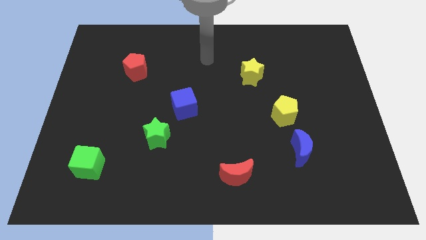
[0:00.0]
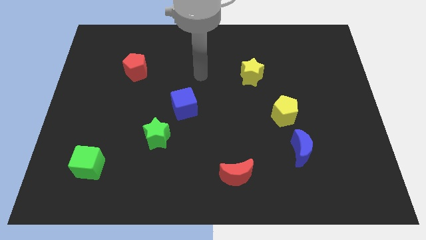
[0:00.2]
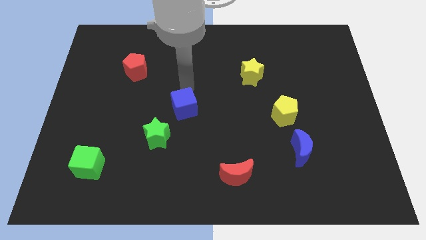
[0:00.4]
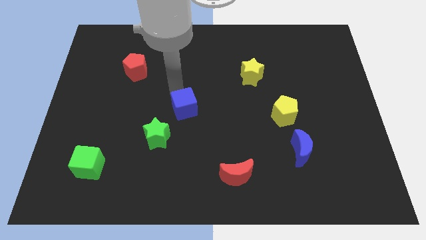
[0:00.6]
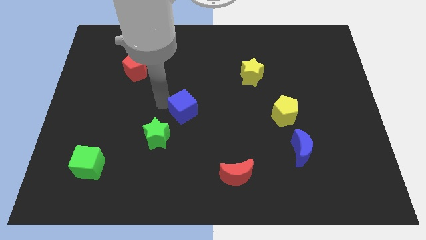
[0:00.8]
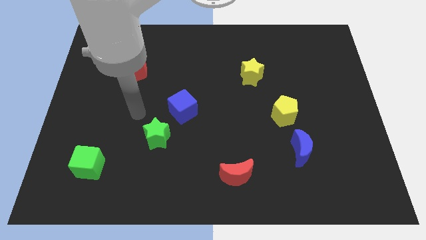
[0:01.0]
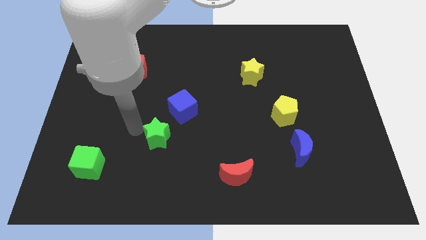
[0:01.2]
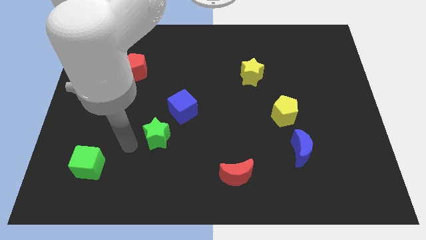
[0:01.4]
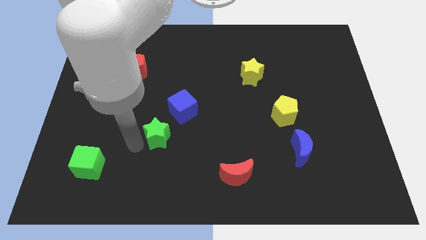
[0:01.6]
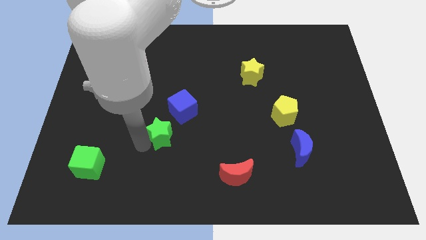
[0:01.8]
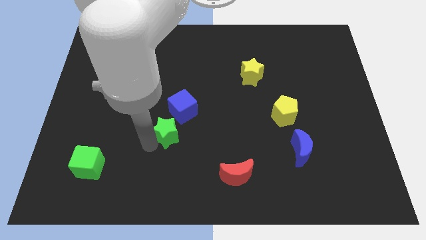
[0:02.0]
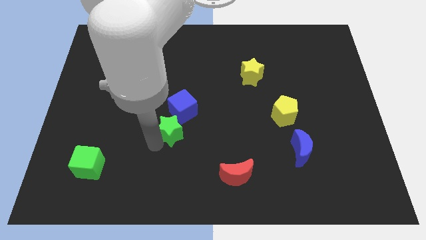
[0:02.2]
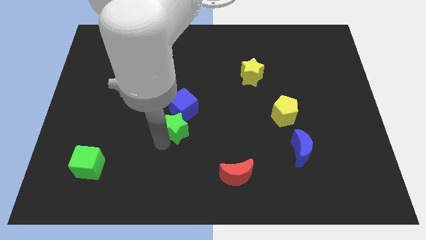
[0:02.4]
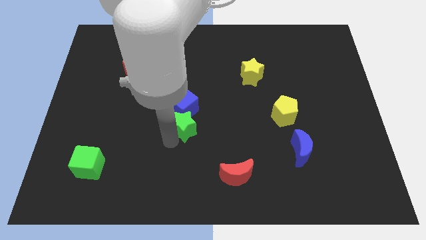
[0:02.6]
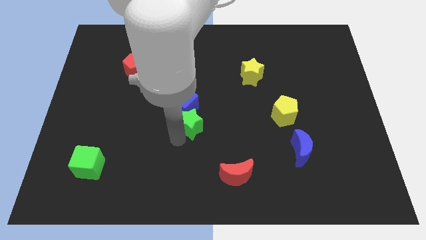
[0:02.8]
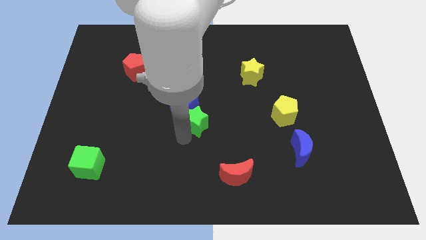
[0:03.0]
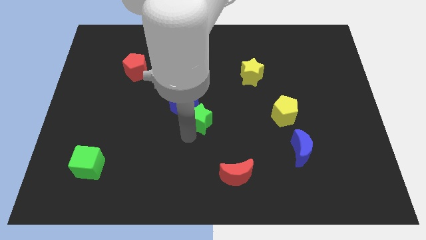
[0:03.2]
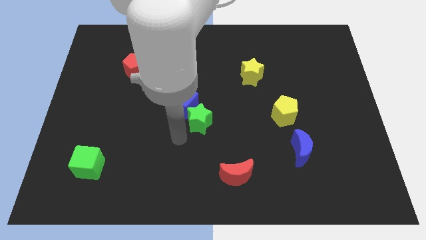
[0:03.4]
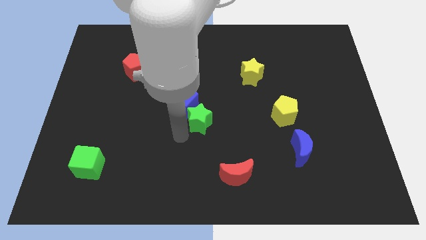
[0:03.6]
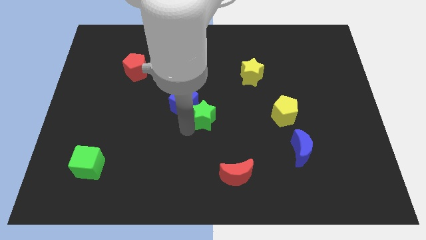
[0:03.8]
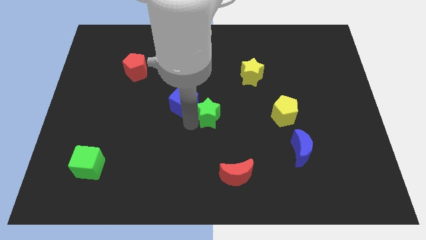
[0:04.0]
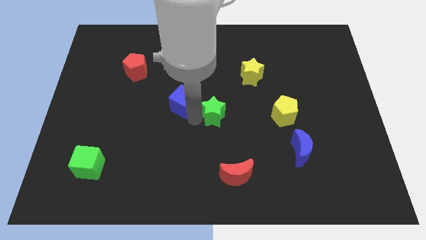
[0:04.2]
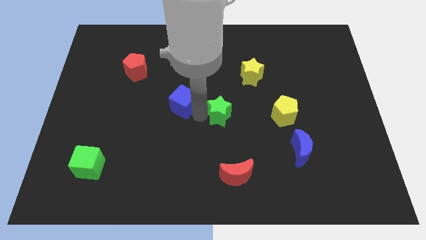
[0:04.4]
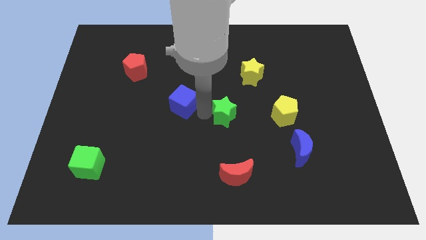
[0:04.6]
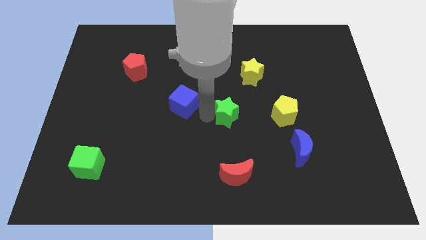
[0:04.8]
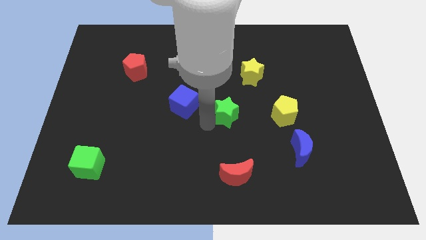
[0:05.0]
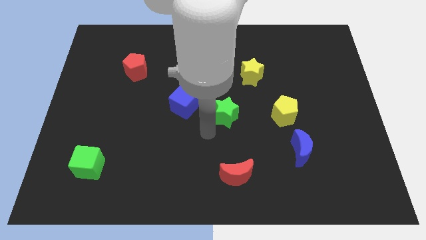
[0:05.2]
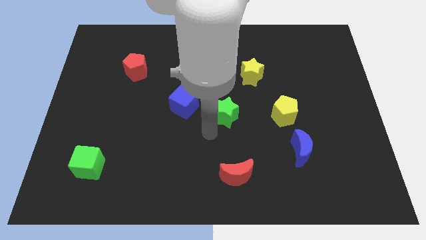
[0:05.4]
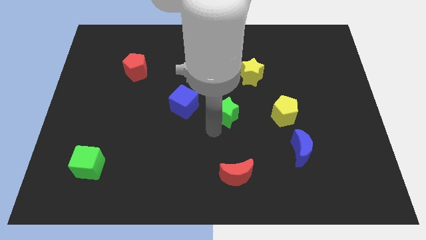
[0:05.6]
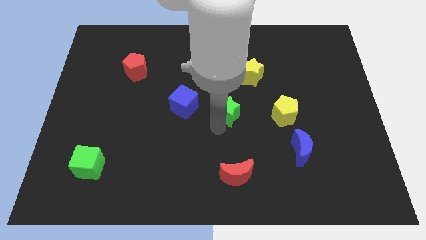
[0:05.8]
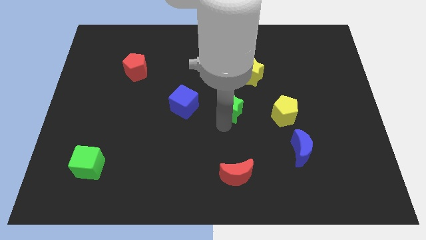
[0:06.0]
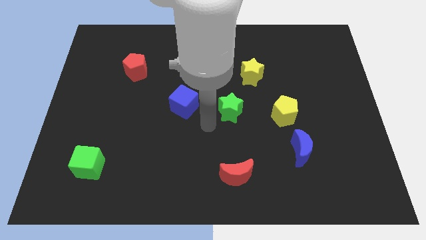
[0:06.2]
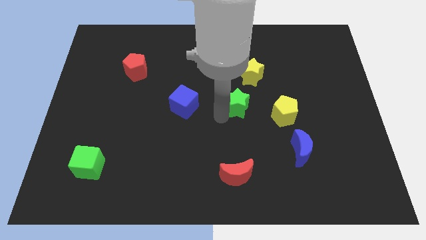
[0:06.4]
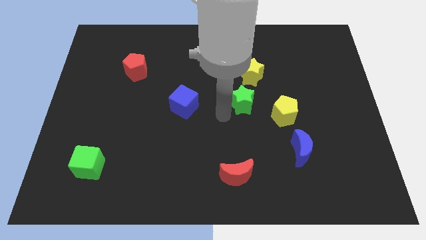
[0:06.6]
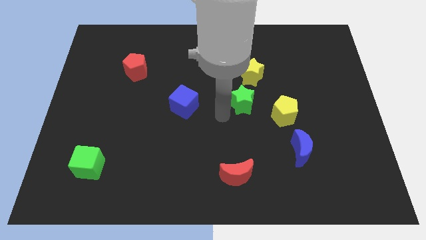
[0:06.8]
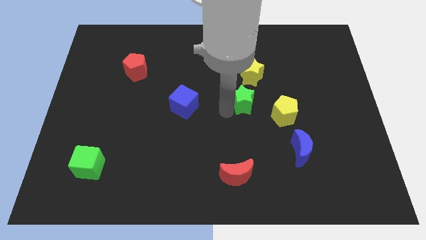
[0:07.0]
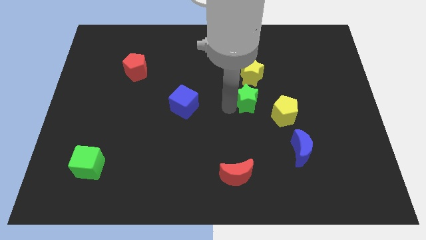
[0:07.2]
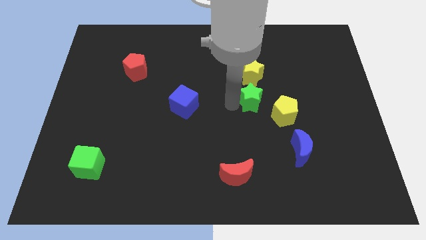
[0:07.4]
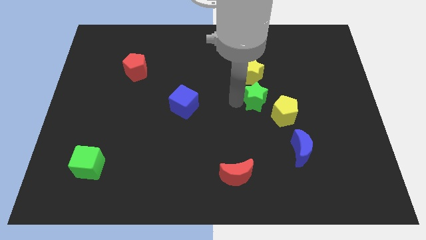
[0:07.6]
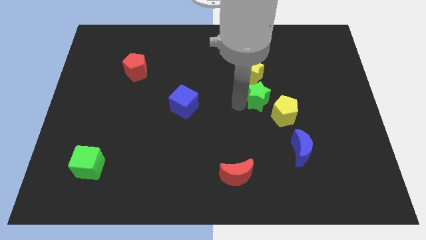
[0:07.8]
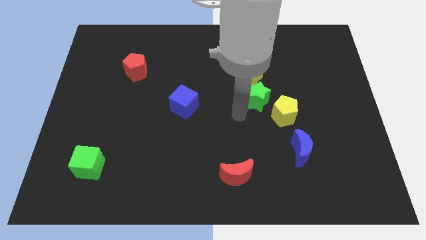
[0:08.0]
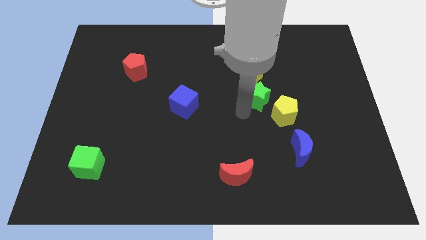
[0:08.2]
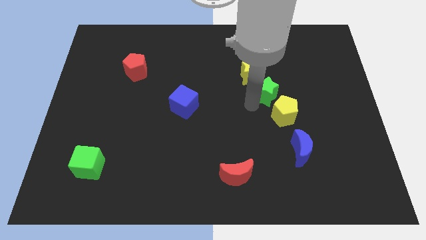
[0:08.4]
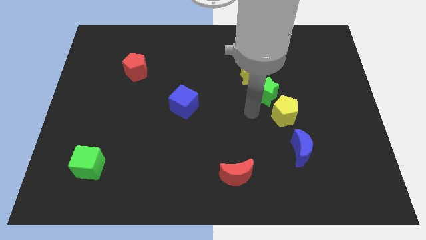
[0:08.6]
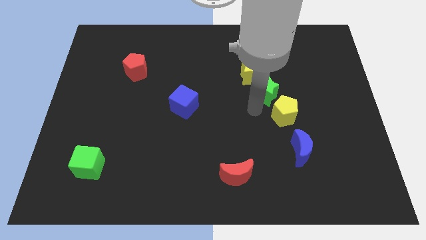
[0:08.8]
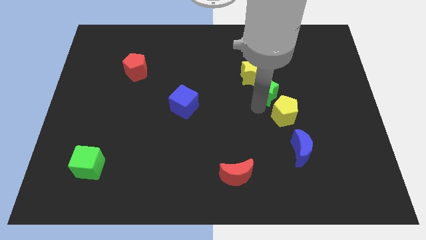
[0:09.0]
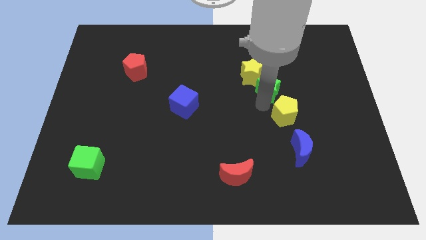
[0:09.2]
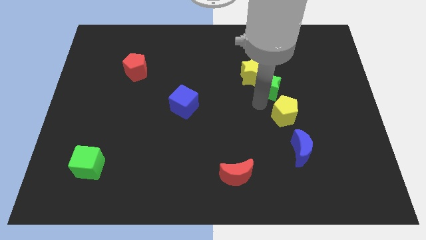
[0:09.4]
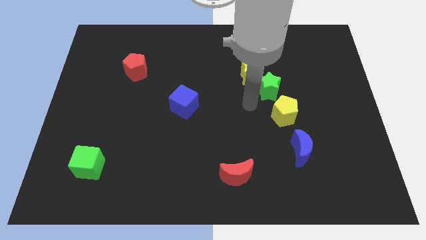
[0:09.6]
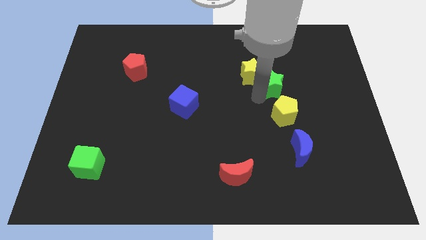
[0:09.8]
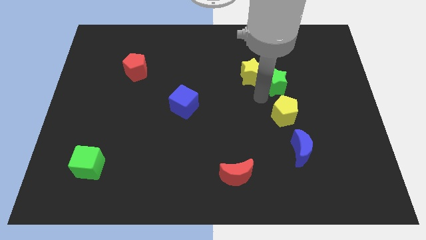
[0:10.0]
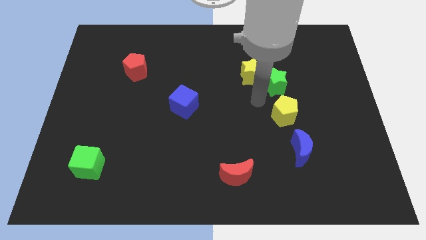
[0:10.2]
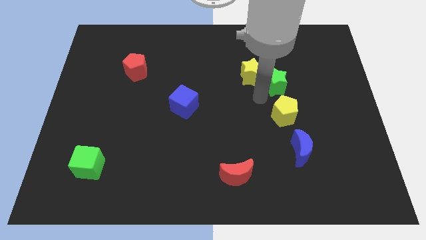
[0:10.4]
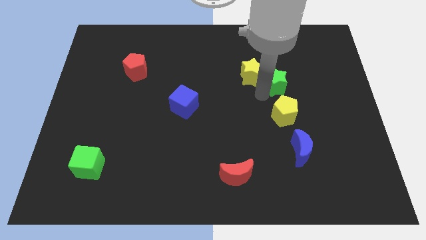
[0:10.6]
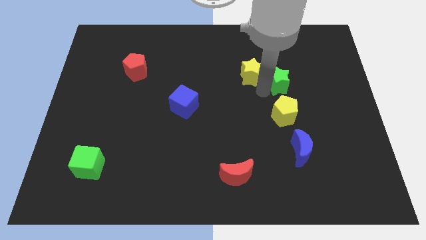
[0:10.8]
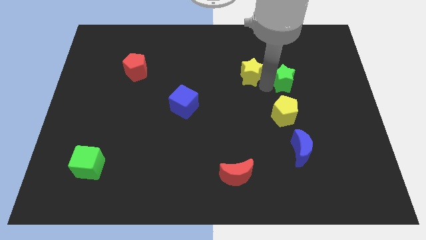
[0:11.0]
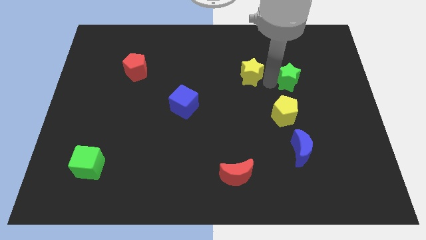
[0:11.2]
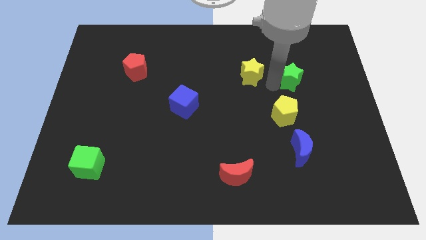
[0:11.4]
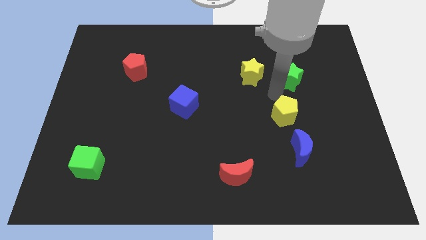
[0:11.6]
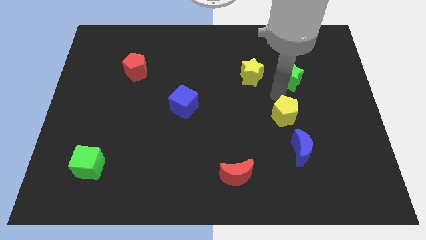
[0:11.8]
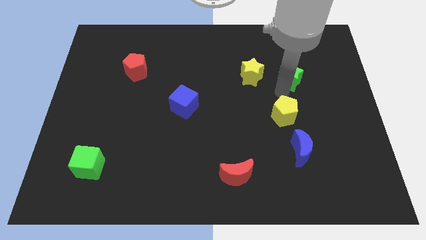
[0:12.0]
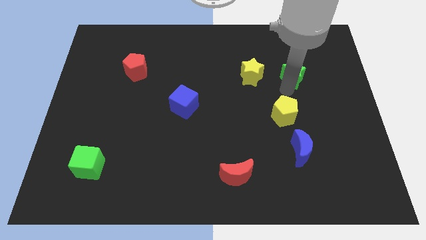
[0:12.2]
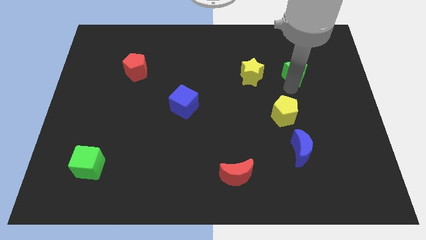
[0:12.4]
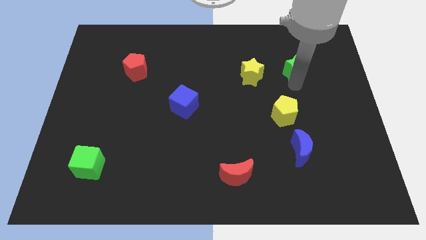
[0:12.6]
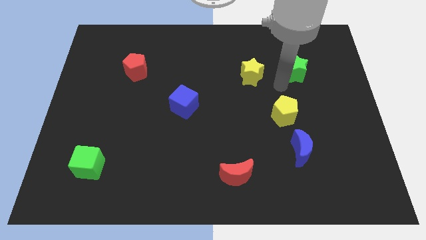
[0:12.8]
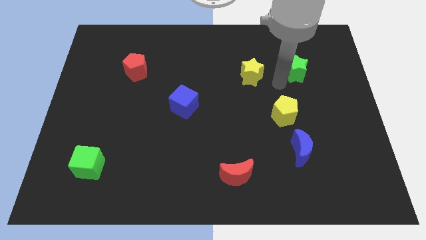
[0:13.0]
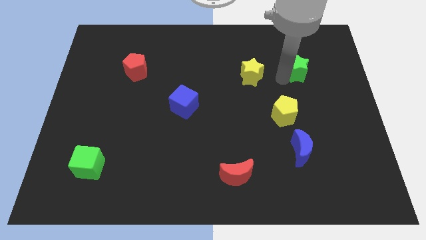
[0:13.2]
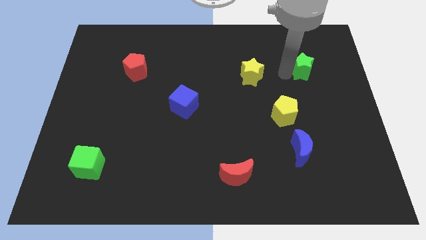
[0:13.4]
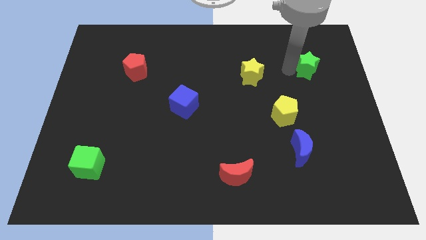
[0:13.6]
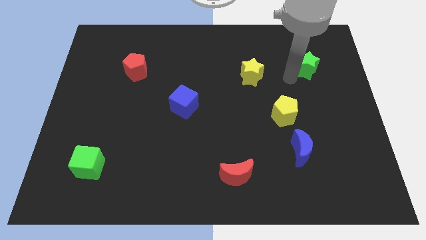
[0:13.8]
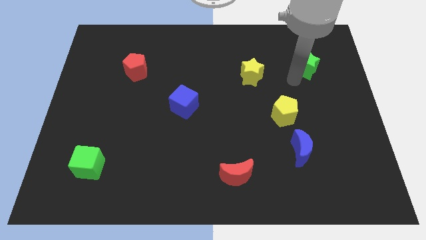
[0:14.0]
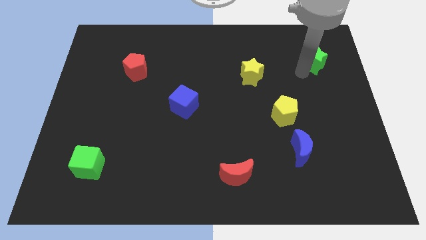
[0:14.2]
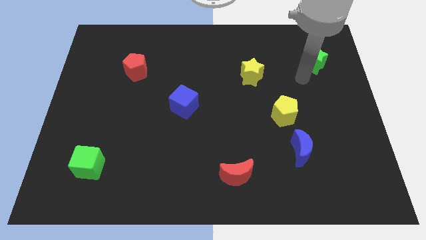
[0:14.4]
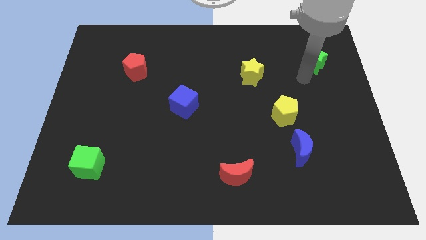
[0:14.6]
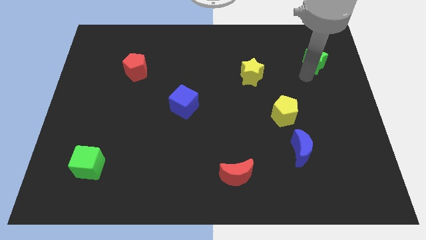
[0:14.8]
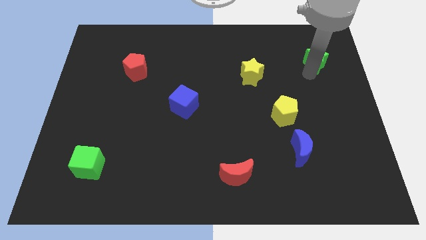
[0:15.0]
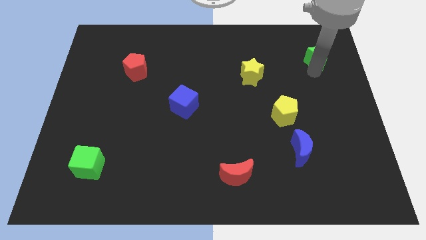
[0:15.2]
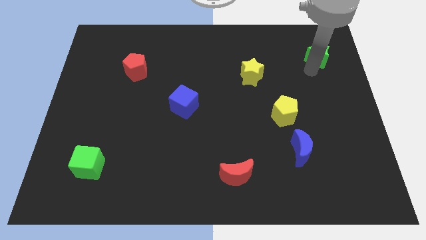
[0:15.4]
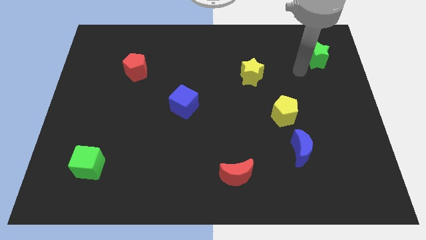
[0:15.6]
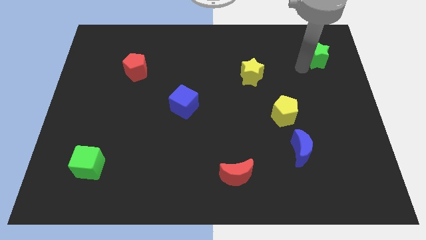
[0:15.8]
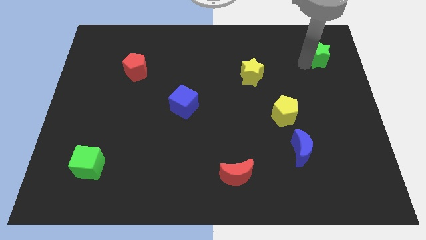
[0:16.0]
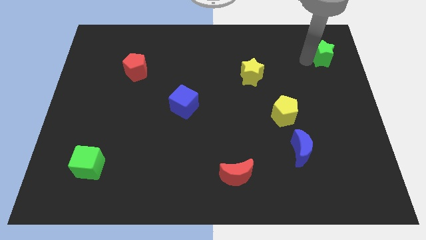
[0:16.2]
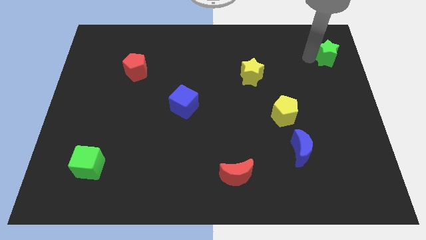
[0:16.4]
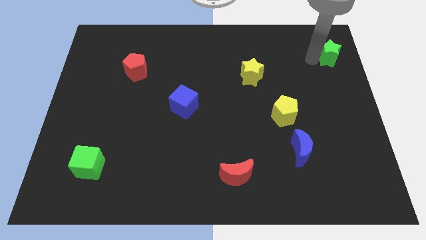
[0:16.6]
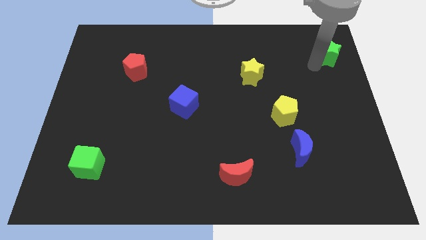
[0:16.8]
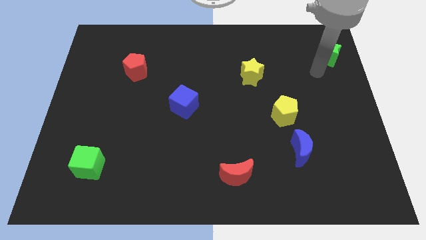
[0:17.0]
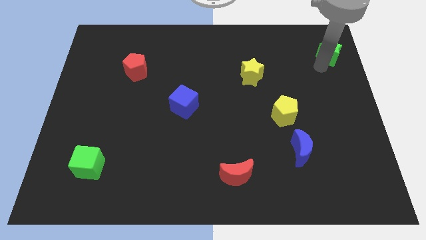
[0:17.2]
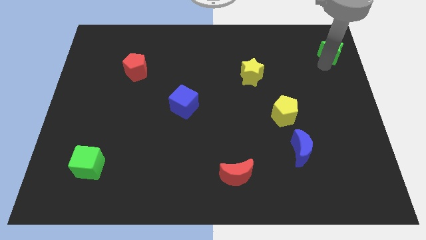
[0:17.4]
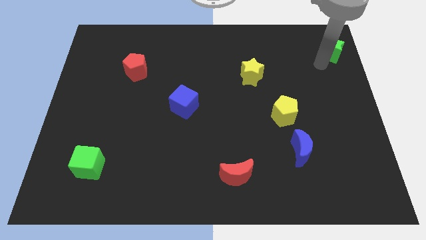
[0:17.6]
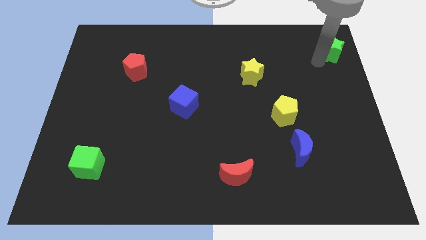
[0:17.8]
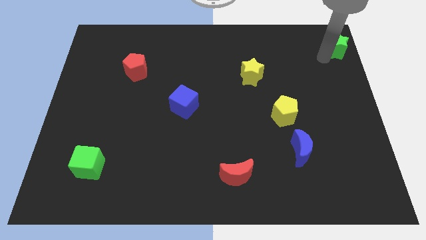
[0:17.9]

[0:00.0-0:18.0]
move the green star to the top right of the board
